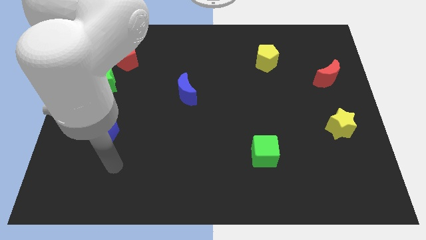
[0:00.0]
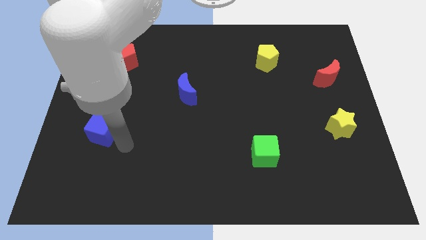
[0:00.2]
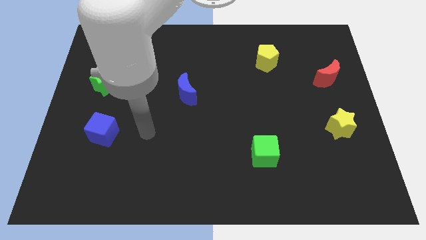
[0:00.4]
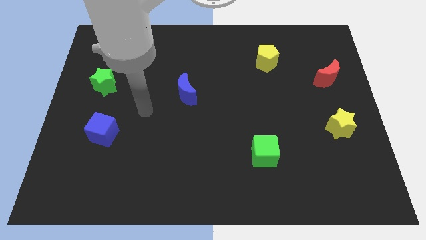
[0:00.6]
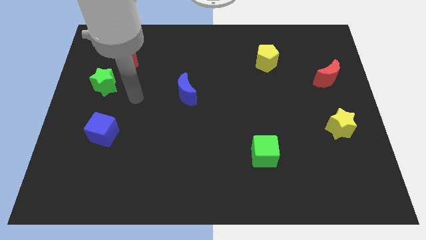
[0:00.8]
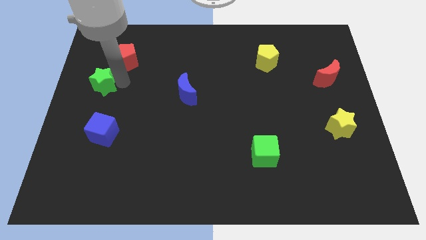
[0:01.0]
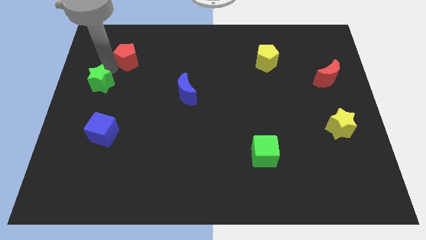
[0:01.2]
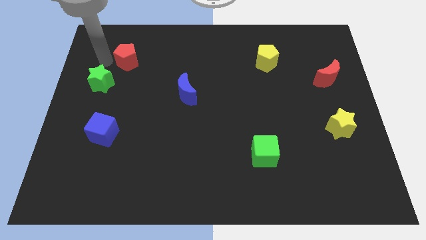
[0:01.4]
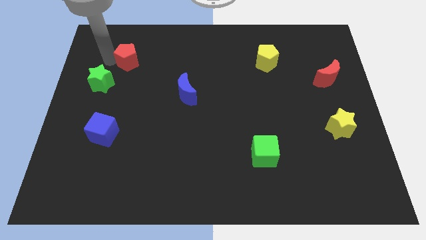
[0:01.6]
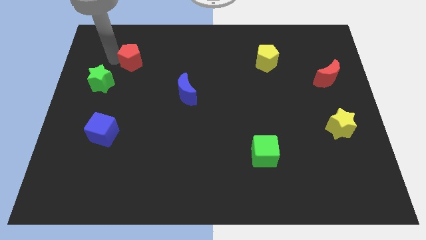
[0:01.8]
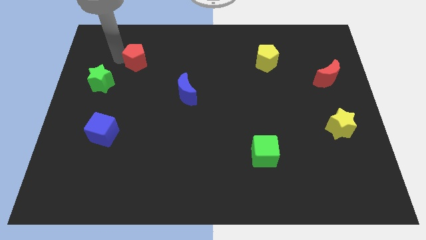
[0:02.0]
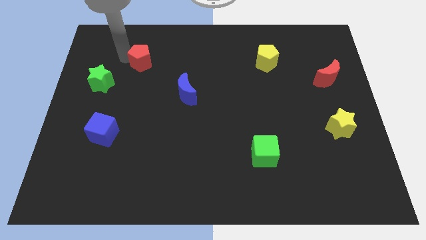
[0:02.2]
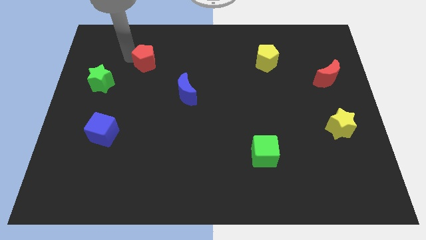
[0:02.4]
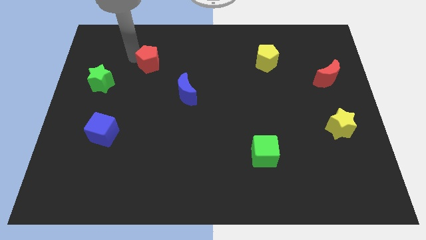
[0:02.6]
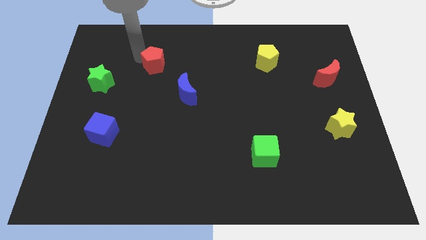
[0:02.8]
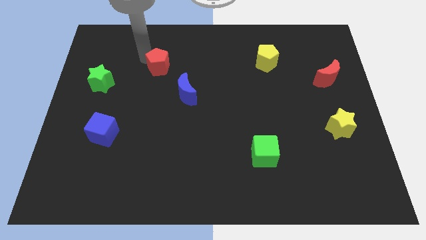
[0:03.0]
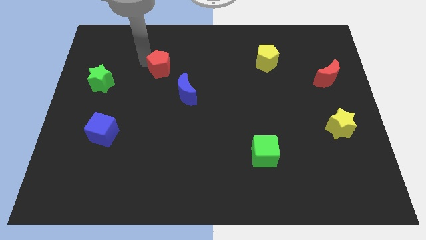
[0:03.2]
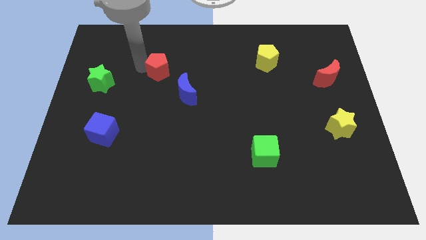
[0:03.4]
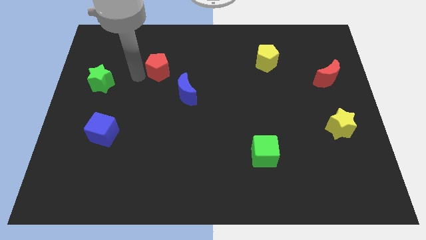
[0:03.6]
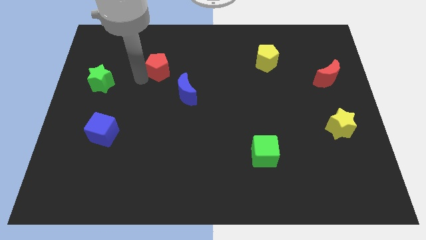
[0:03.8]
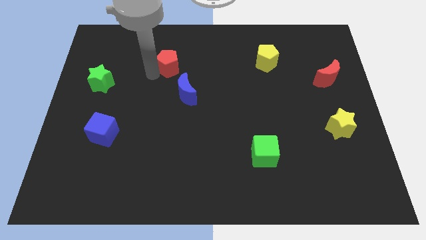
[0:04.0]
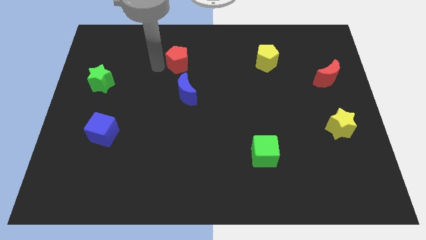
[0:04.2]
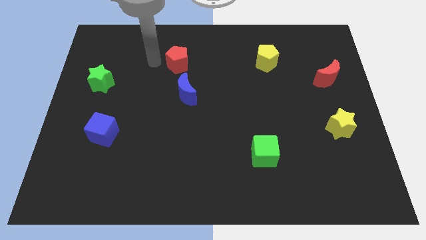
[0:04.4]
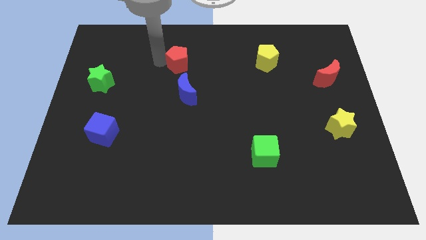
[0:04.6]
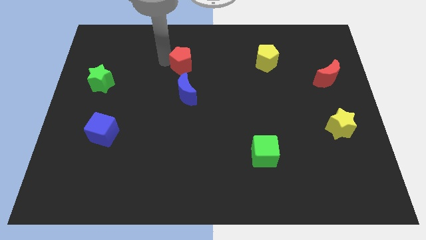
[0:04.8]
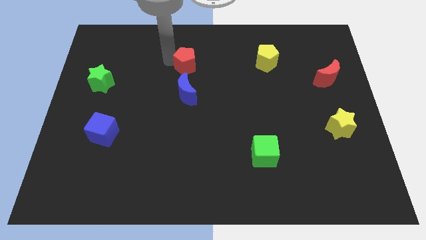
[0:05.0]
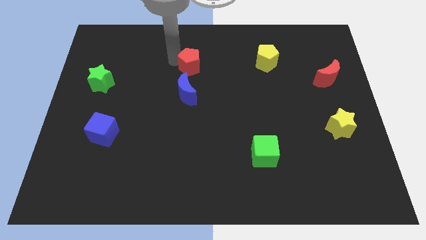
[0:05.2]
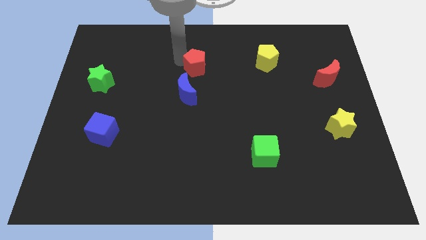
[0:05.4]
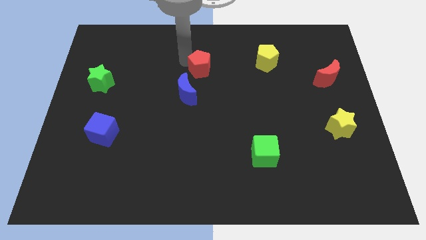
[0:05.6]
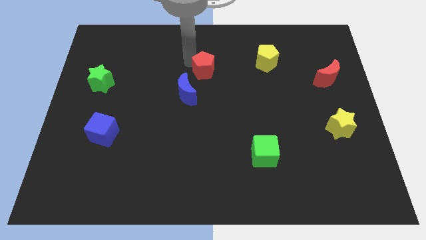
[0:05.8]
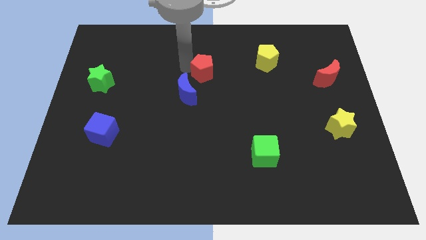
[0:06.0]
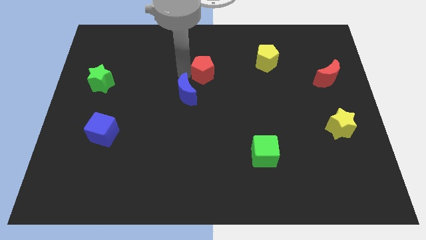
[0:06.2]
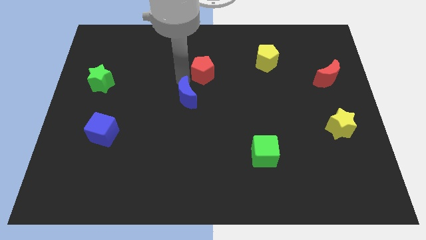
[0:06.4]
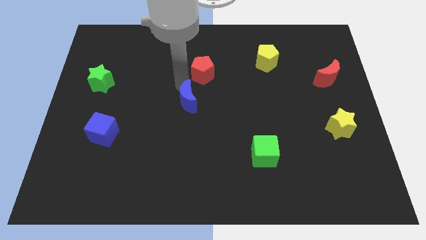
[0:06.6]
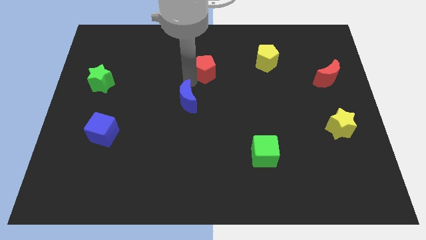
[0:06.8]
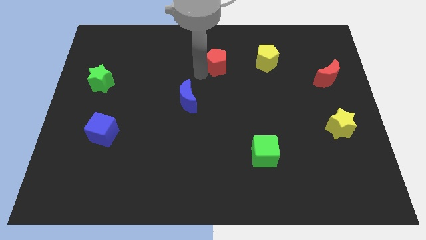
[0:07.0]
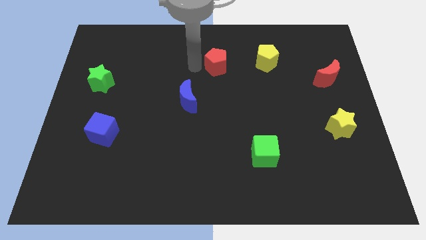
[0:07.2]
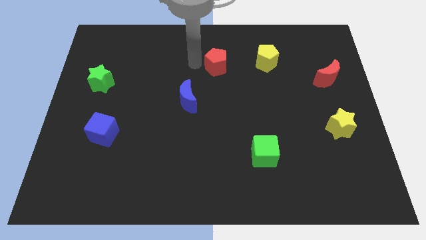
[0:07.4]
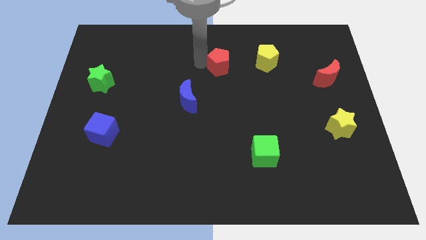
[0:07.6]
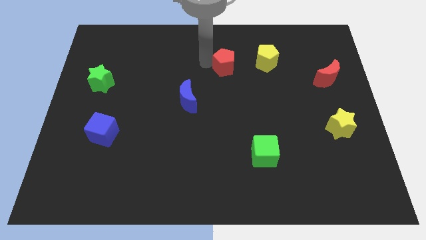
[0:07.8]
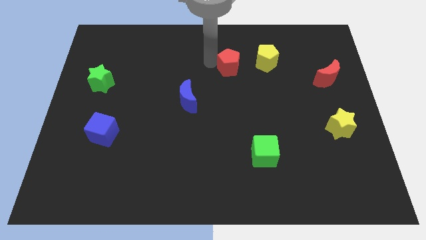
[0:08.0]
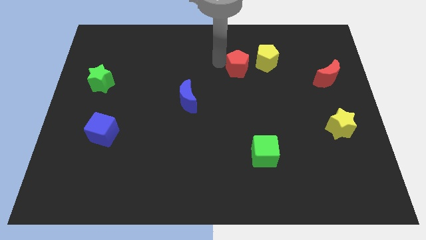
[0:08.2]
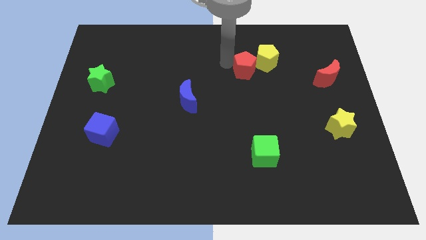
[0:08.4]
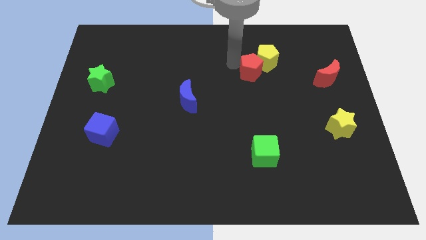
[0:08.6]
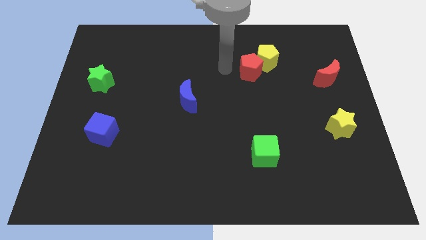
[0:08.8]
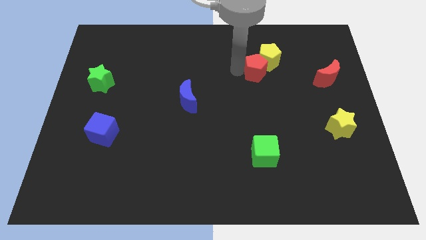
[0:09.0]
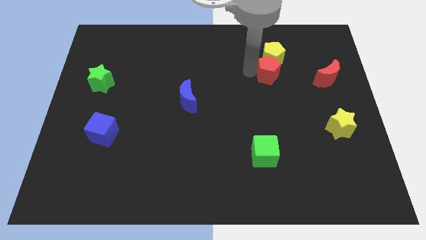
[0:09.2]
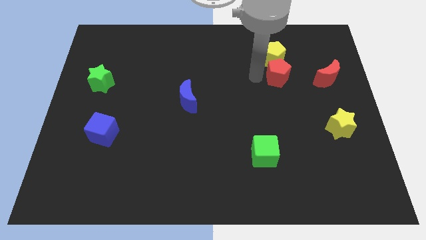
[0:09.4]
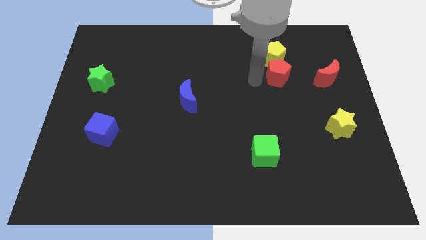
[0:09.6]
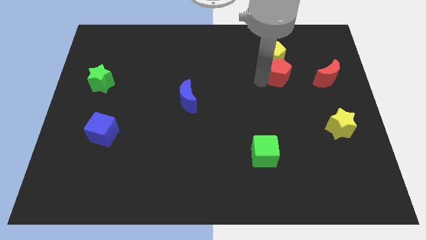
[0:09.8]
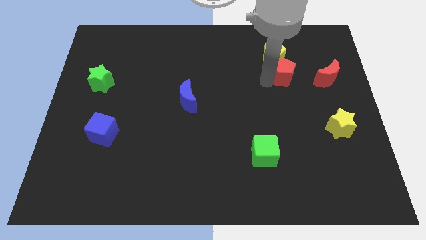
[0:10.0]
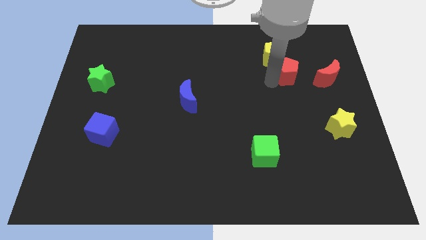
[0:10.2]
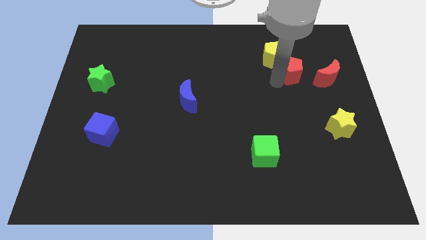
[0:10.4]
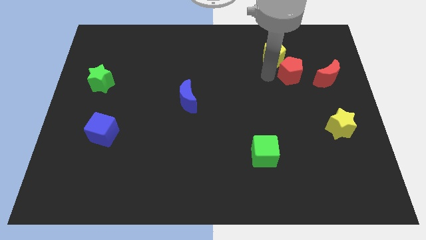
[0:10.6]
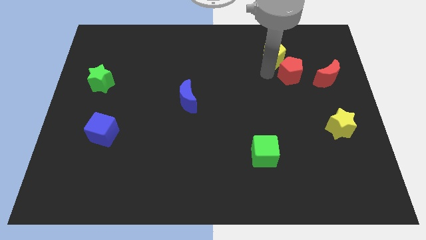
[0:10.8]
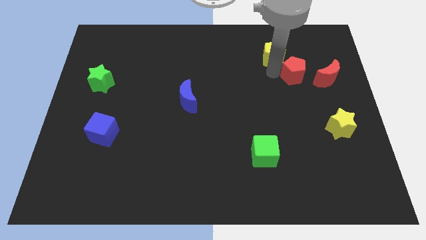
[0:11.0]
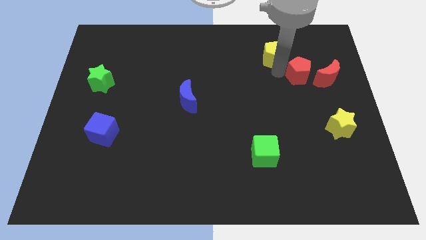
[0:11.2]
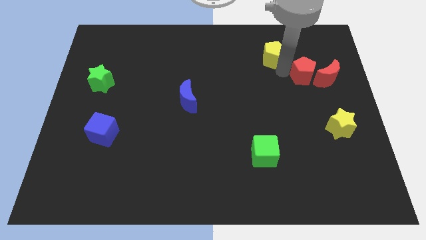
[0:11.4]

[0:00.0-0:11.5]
push the red pentagon towards the red moon
